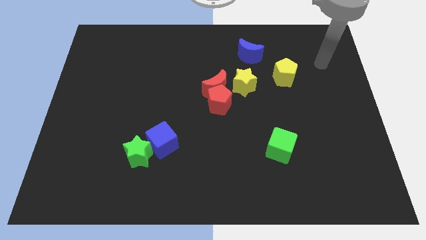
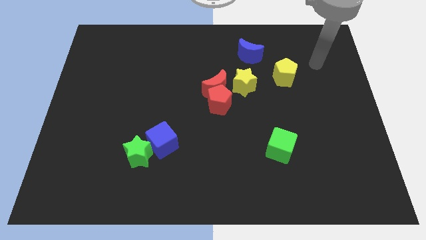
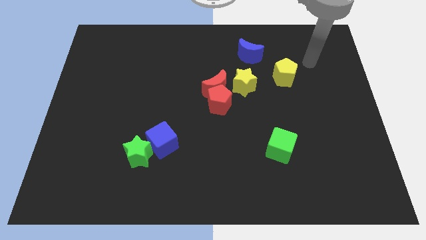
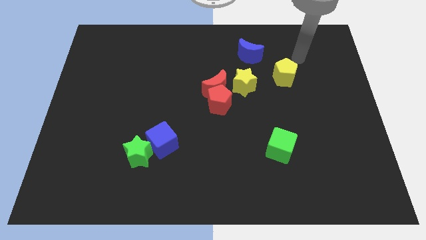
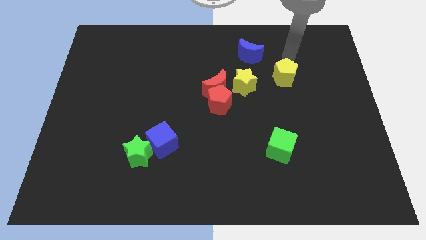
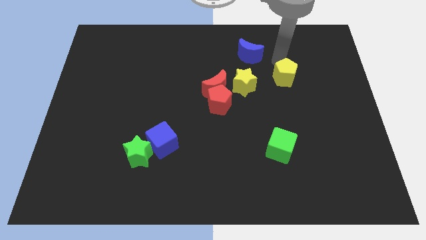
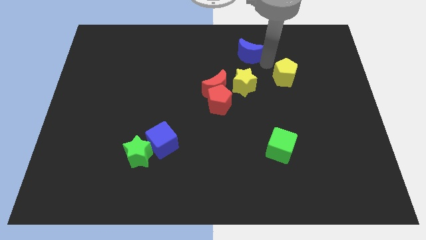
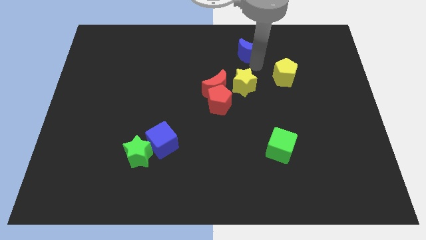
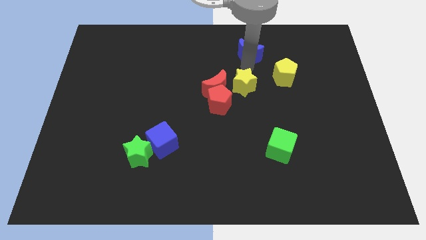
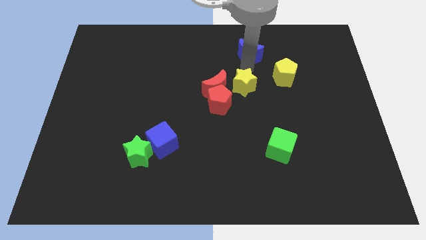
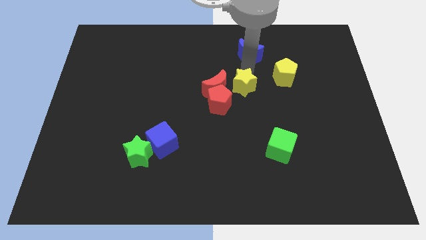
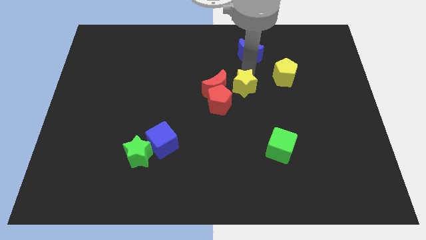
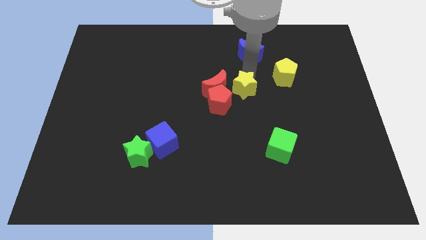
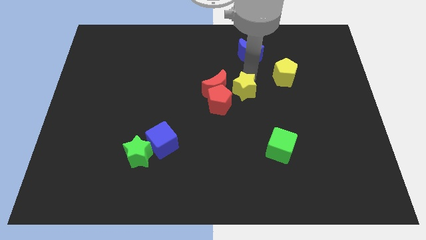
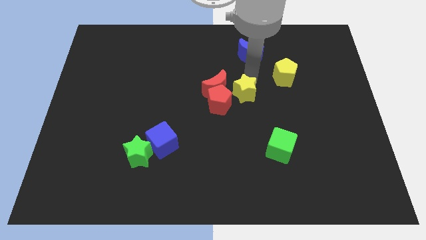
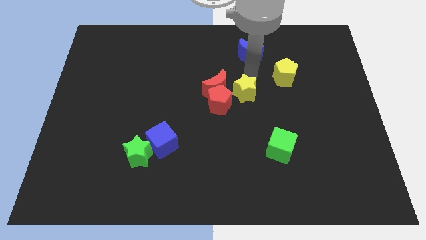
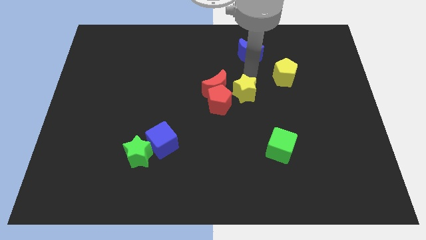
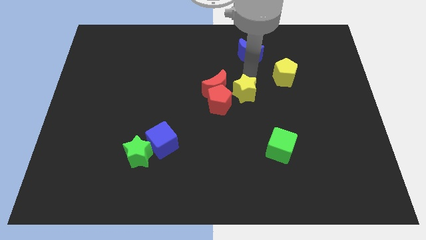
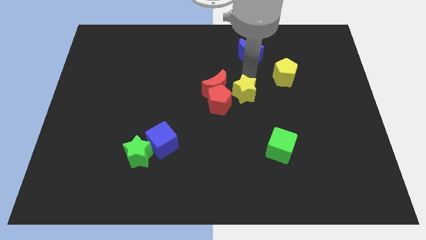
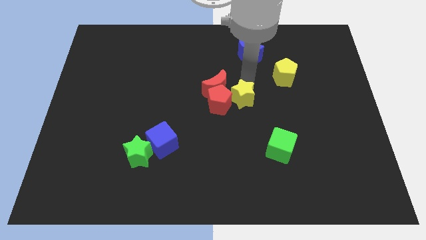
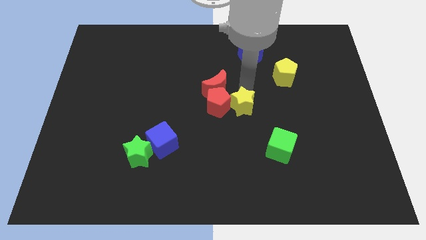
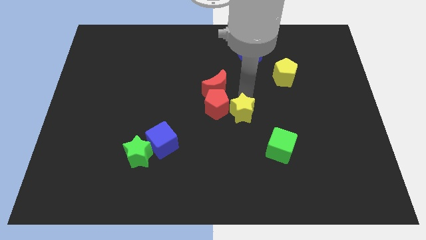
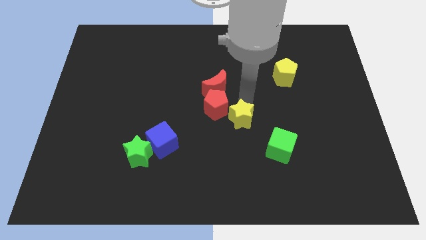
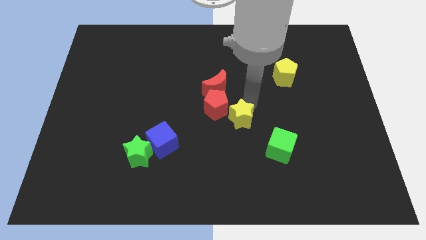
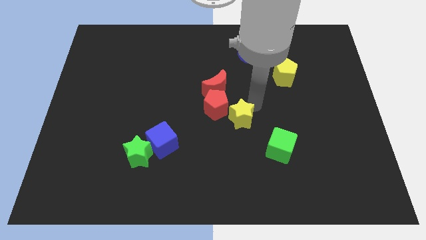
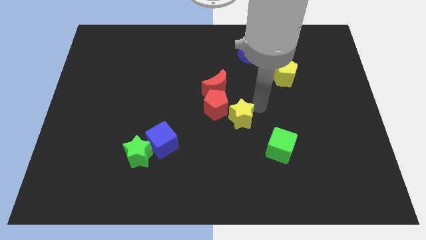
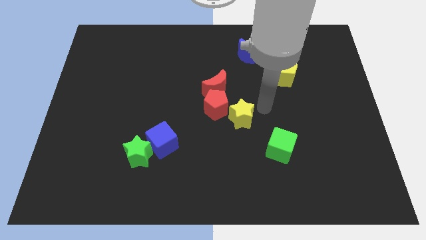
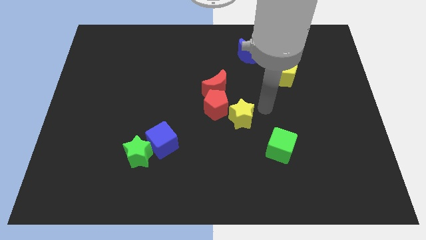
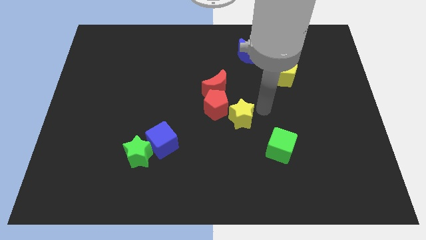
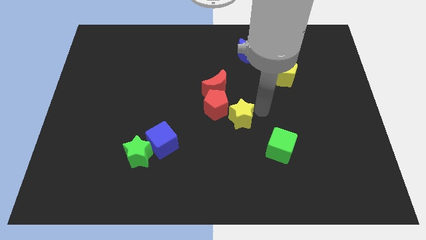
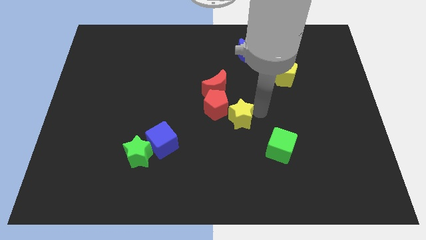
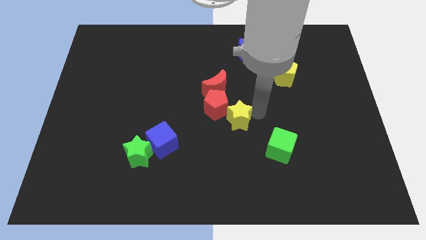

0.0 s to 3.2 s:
slightly slide the yellow star downwards and then to the left

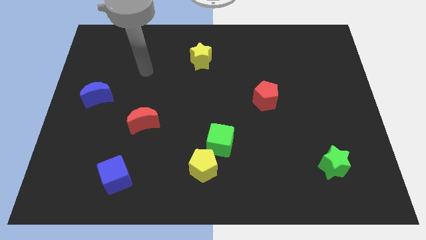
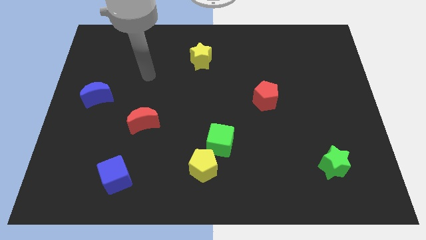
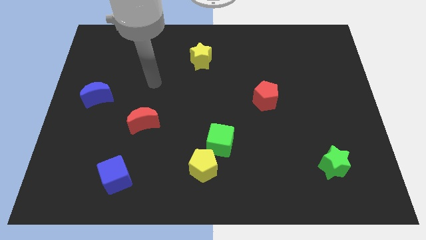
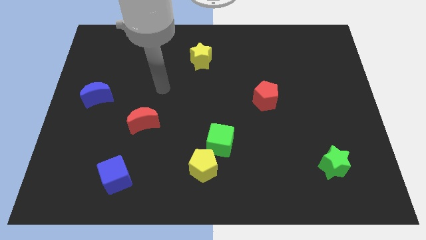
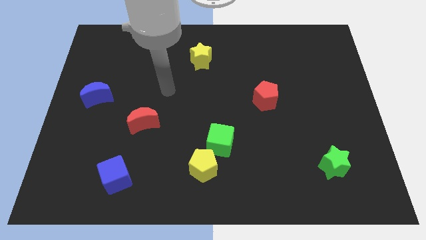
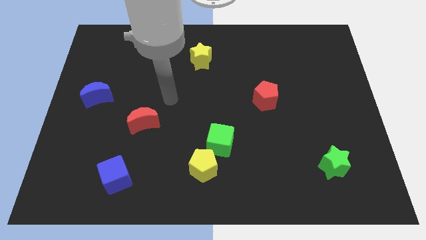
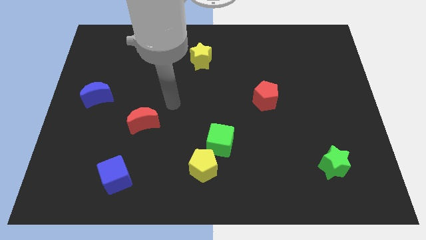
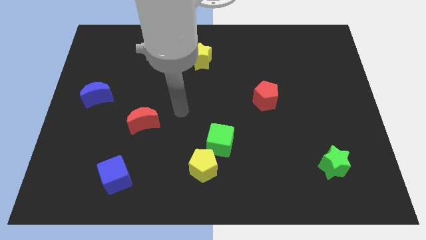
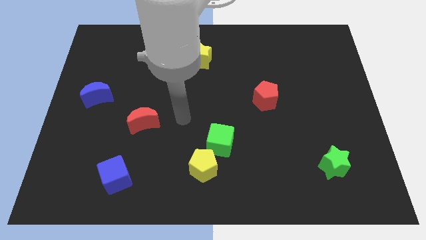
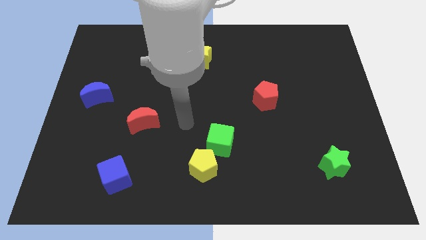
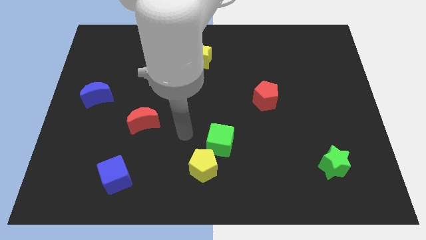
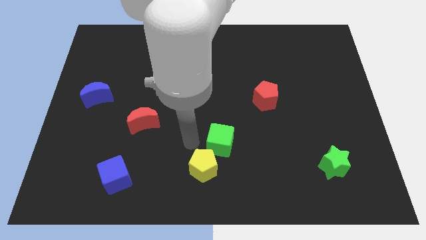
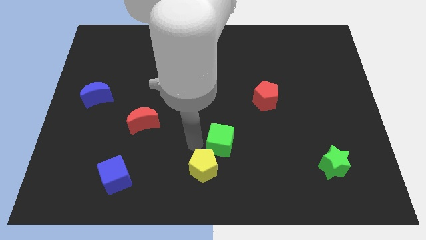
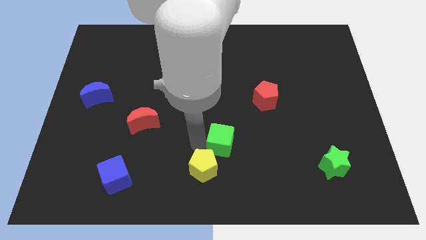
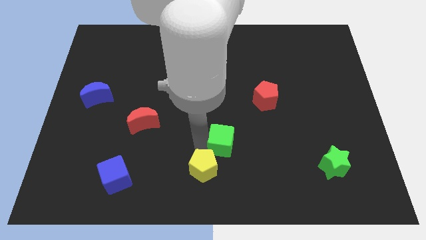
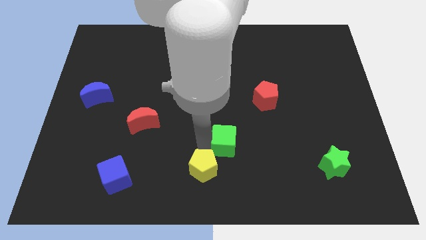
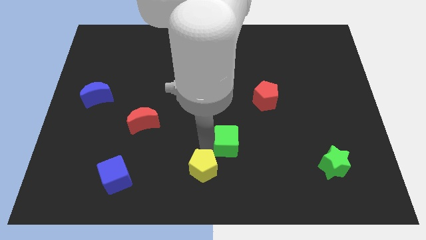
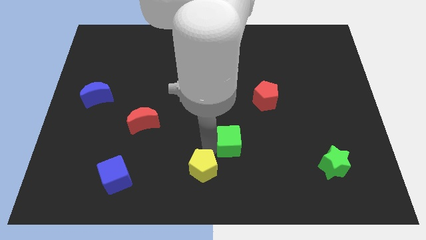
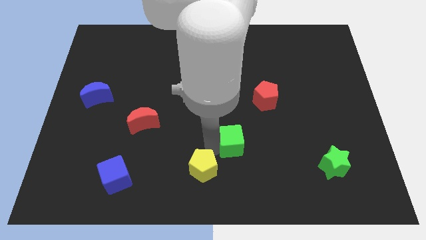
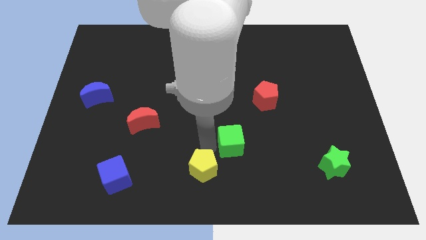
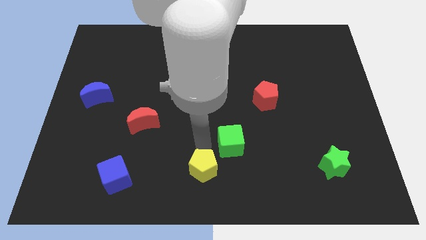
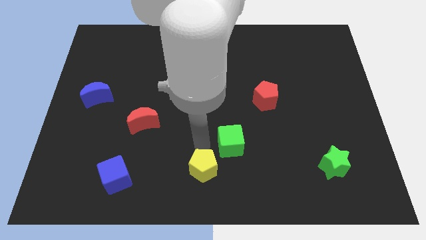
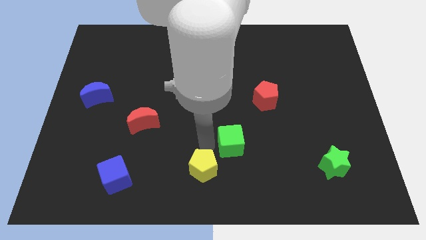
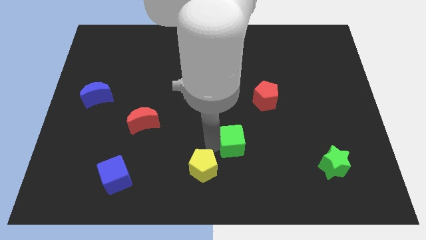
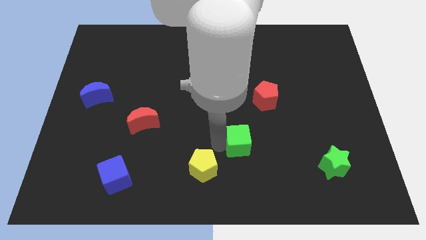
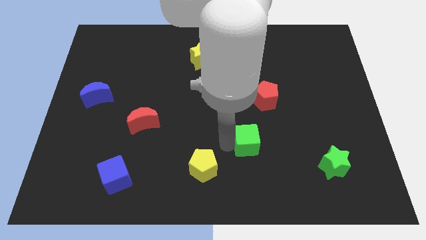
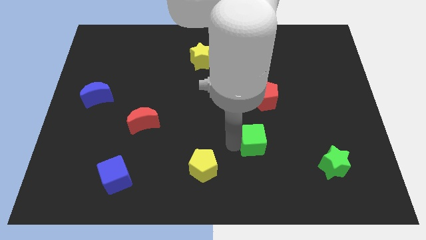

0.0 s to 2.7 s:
slightly move the green cube right

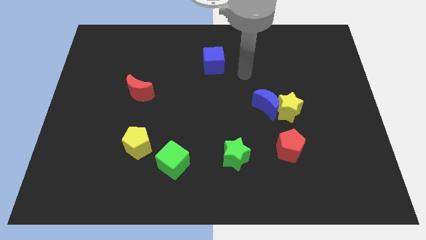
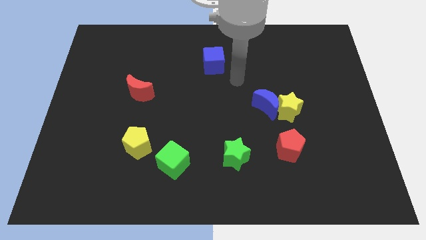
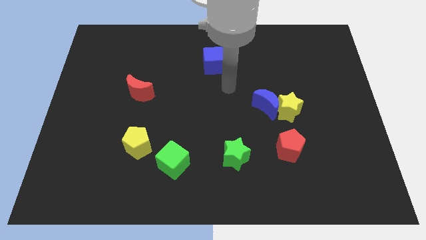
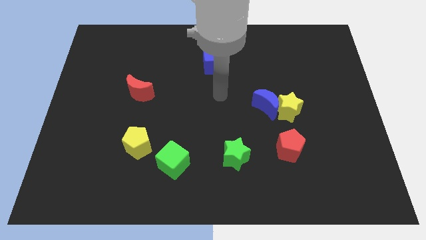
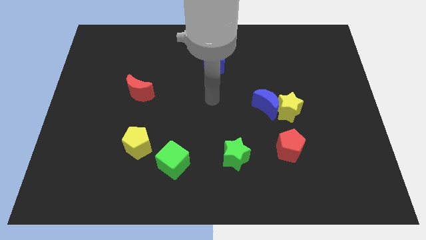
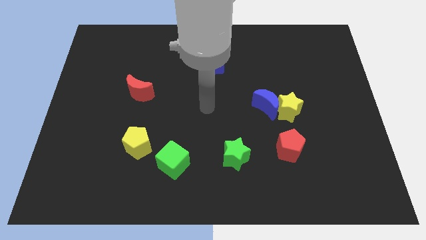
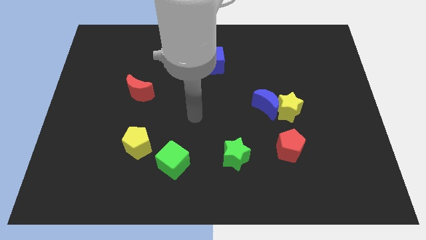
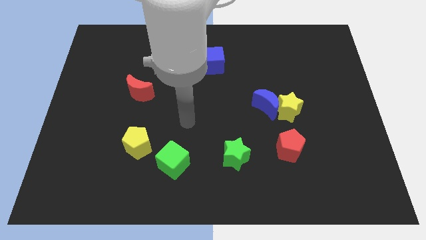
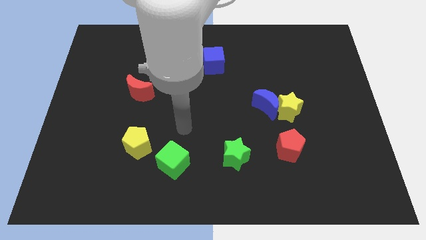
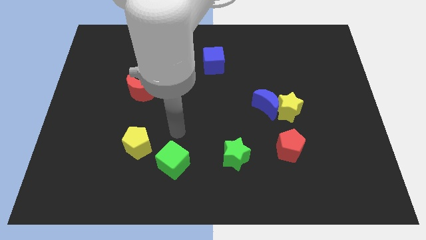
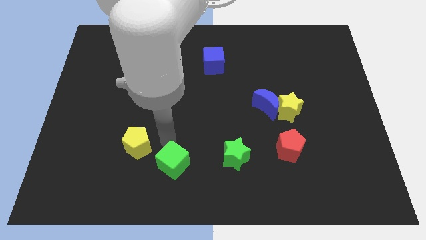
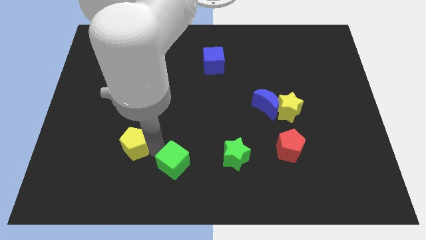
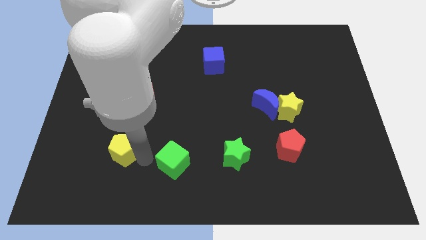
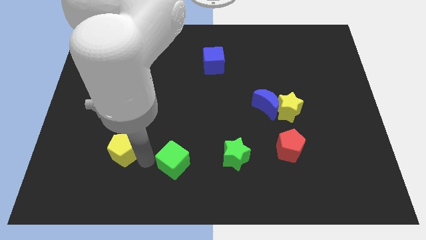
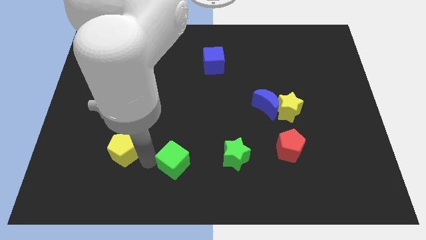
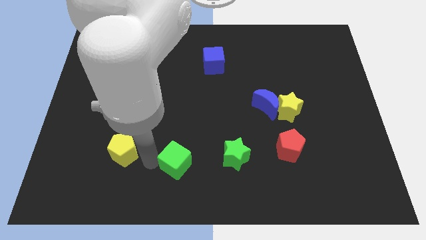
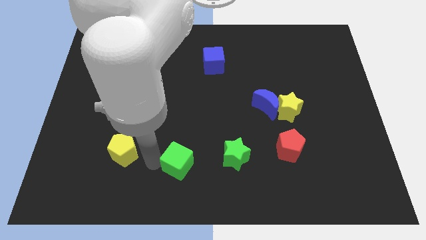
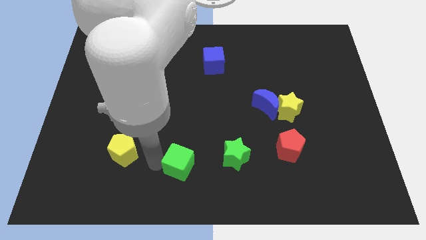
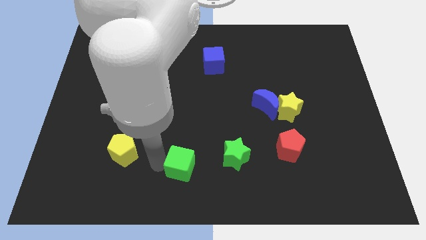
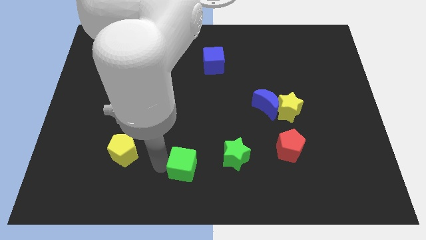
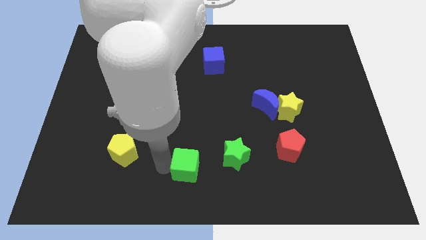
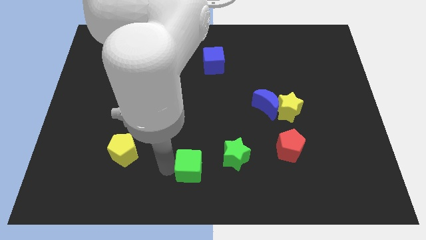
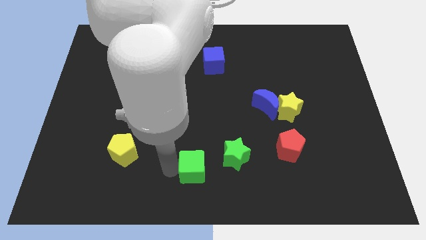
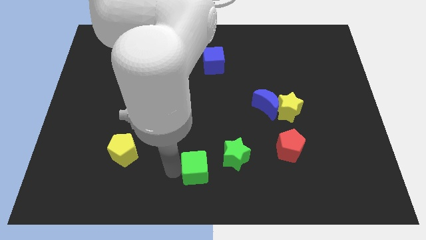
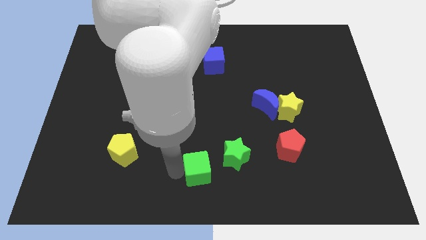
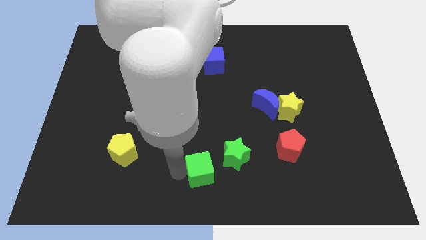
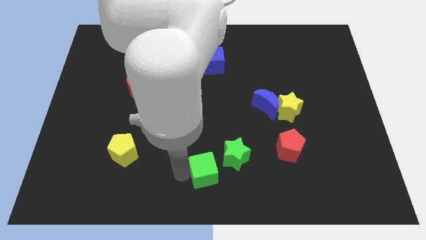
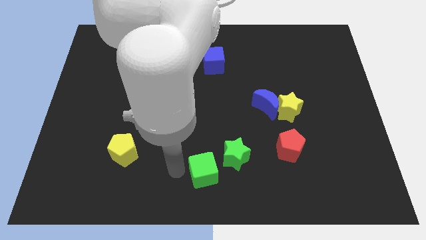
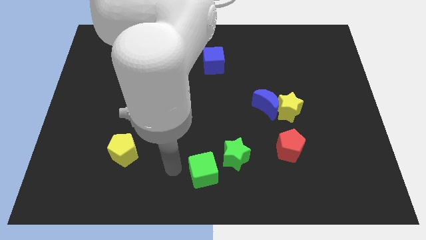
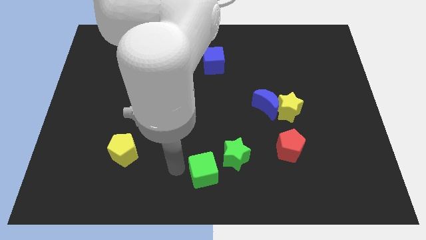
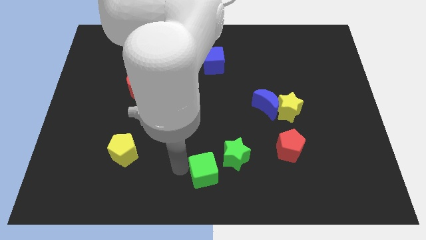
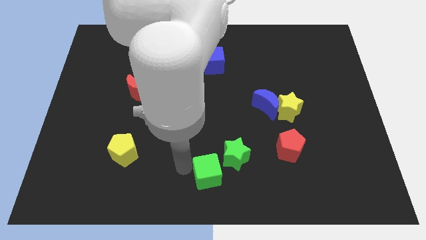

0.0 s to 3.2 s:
move the green cube a little to the right
